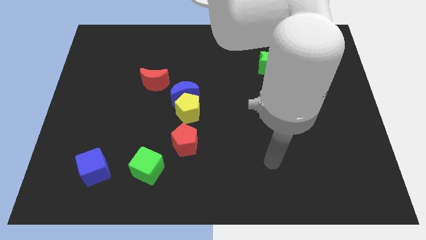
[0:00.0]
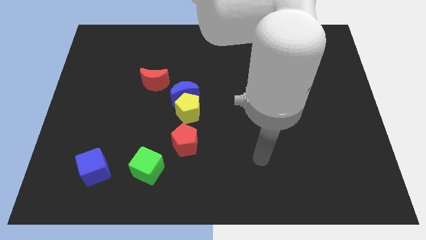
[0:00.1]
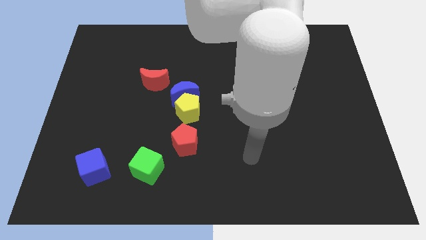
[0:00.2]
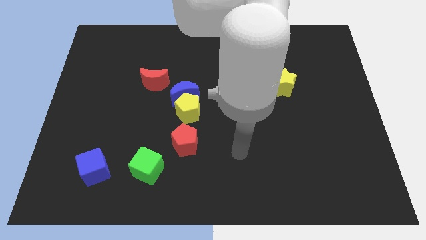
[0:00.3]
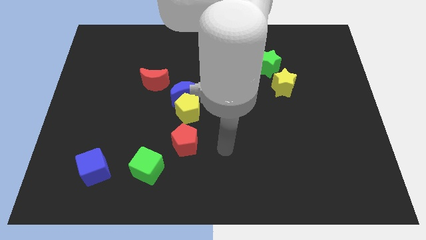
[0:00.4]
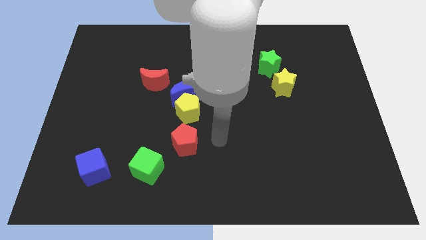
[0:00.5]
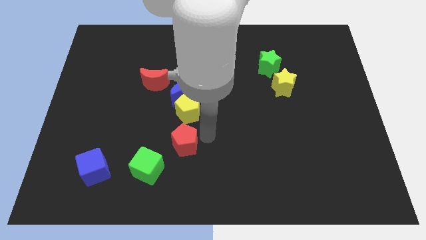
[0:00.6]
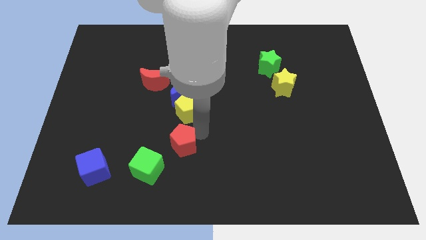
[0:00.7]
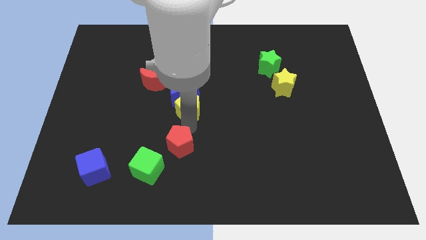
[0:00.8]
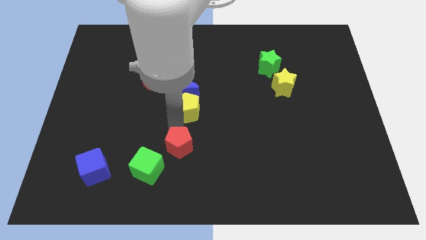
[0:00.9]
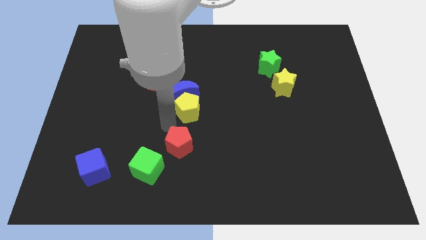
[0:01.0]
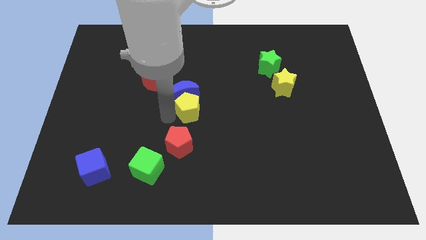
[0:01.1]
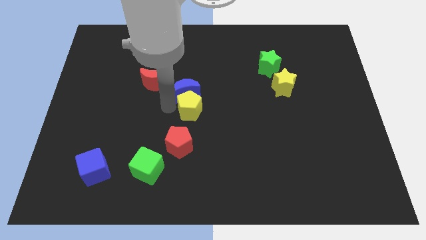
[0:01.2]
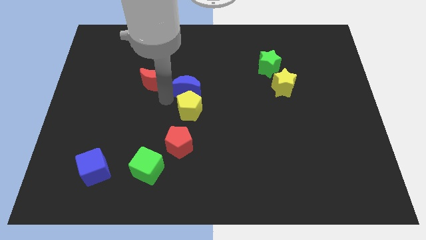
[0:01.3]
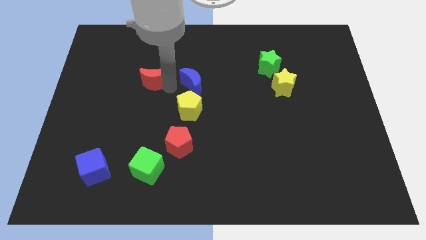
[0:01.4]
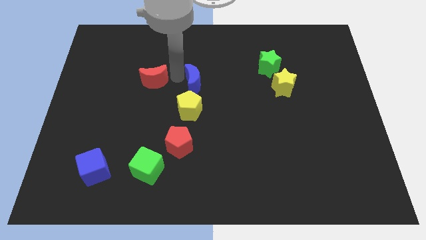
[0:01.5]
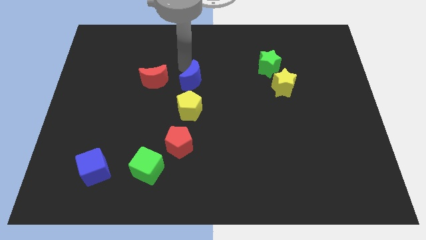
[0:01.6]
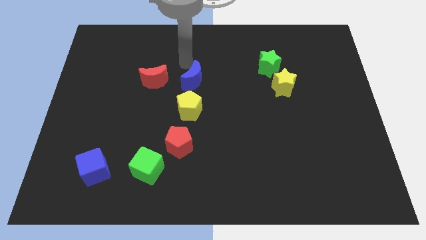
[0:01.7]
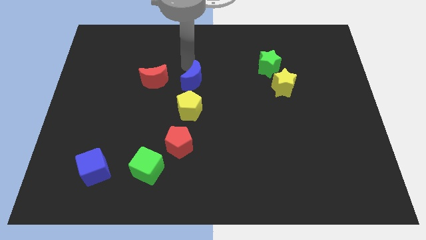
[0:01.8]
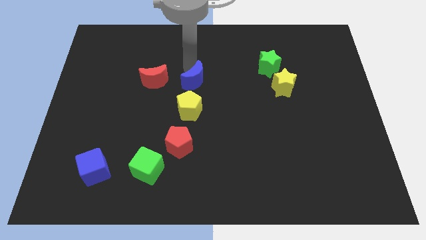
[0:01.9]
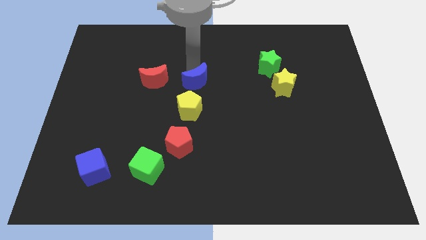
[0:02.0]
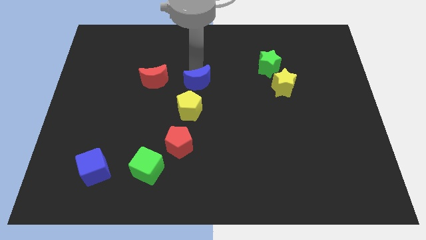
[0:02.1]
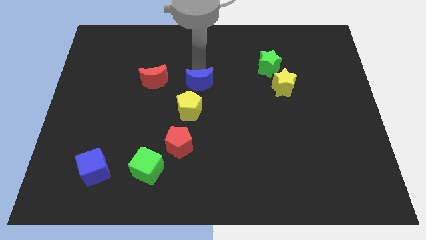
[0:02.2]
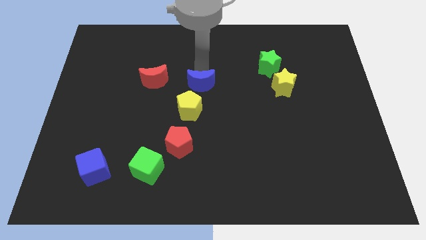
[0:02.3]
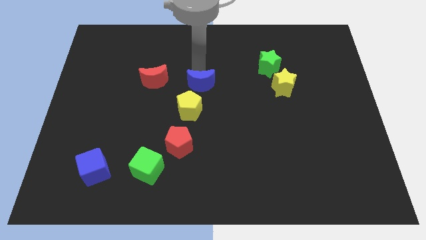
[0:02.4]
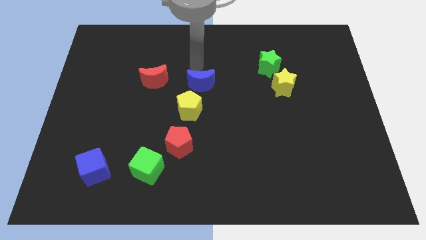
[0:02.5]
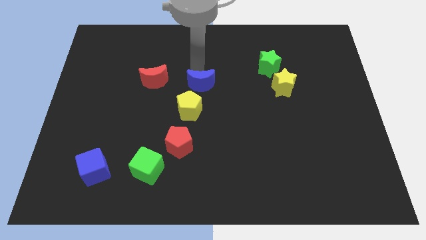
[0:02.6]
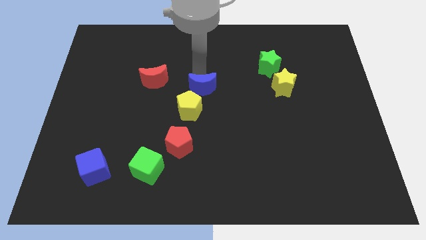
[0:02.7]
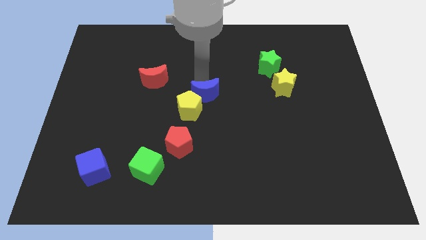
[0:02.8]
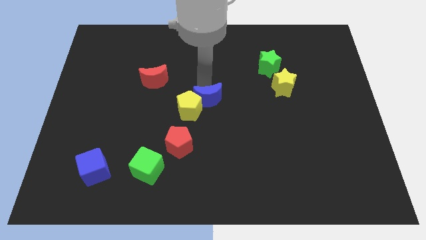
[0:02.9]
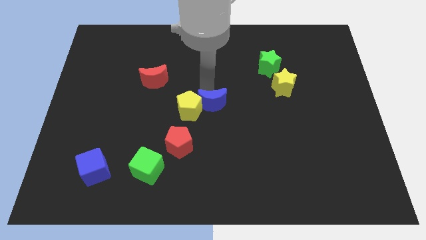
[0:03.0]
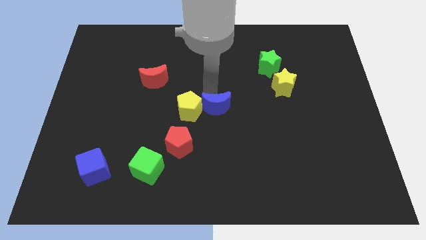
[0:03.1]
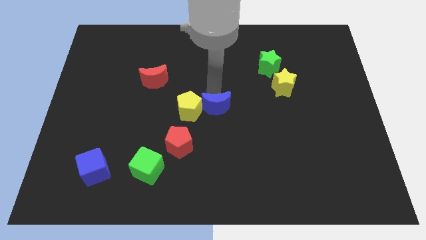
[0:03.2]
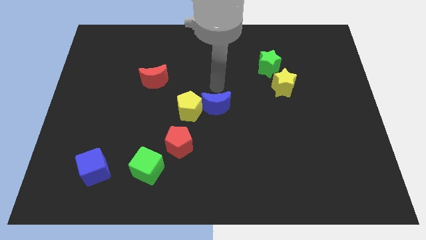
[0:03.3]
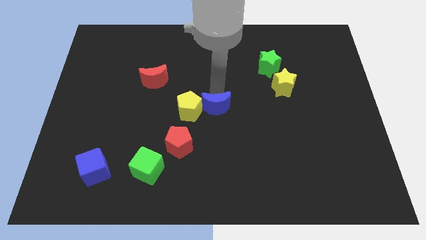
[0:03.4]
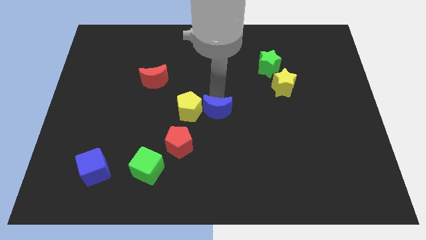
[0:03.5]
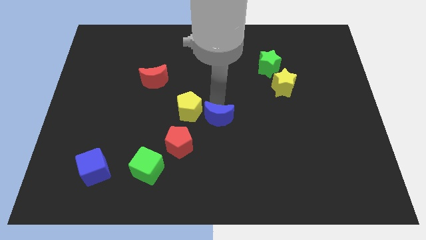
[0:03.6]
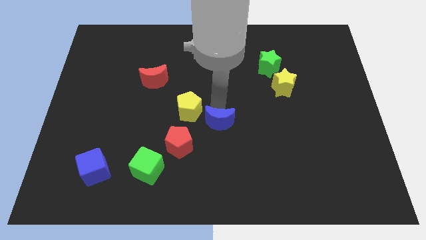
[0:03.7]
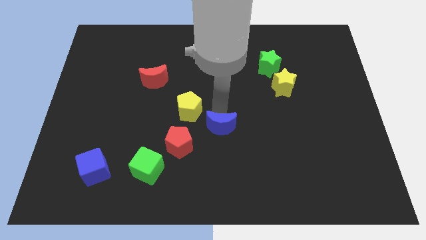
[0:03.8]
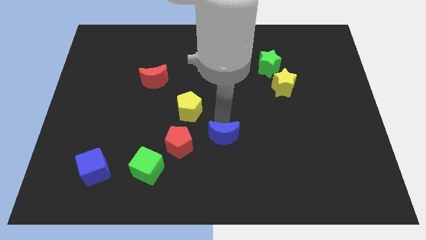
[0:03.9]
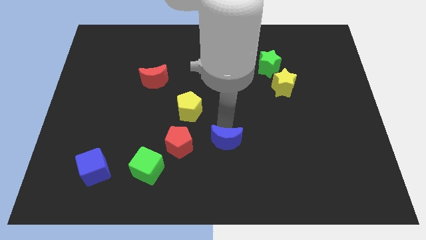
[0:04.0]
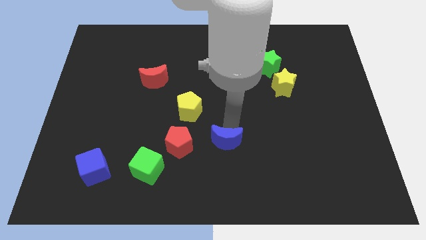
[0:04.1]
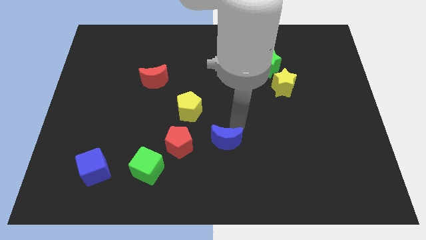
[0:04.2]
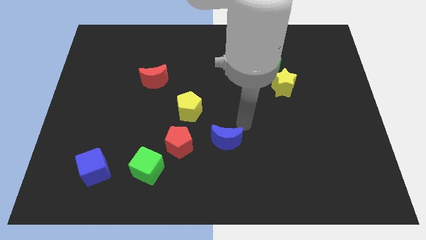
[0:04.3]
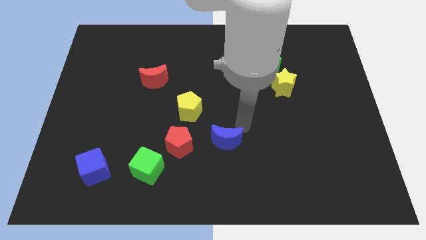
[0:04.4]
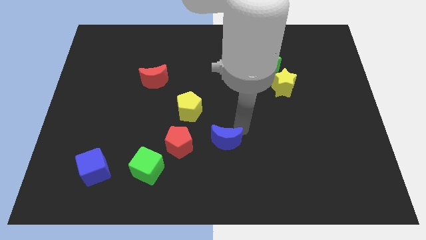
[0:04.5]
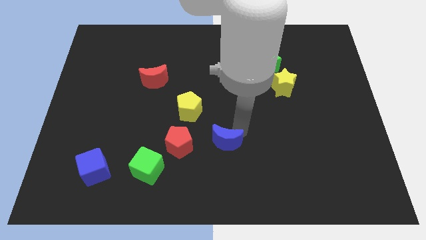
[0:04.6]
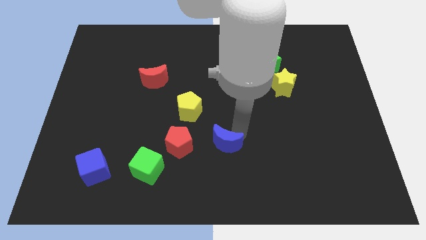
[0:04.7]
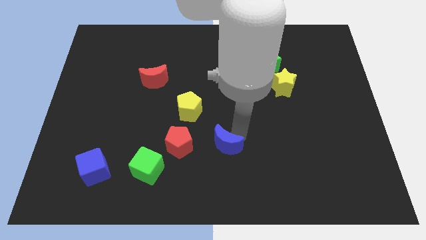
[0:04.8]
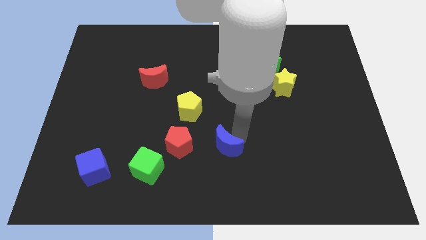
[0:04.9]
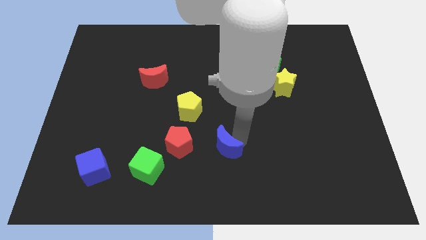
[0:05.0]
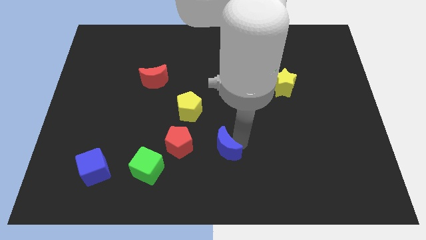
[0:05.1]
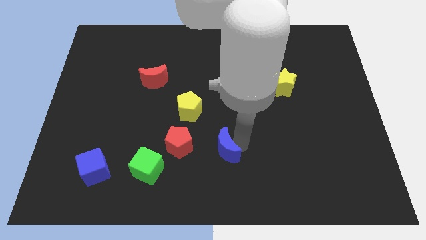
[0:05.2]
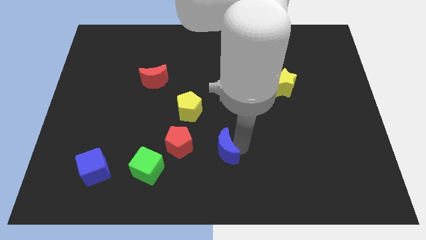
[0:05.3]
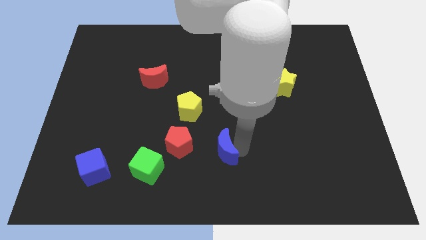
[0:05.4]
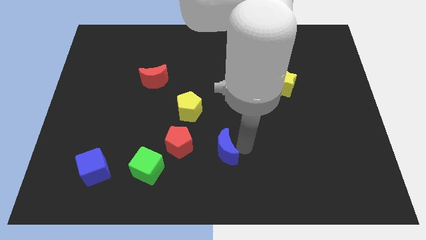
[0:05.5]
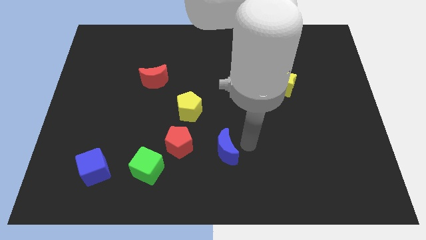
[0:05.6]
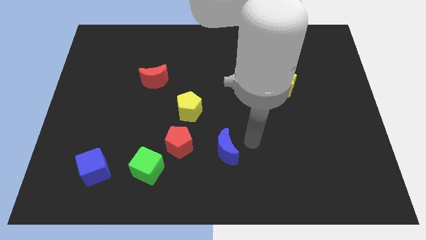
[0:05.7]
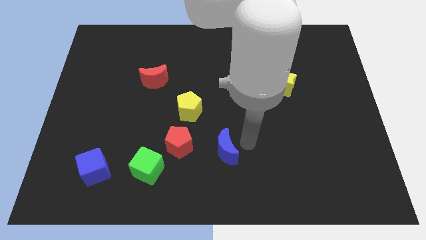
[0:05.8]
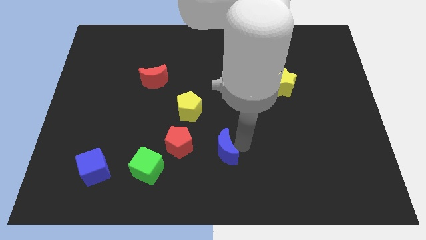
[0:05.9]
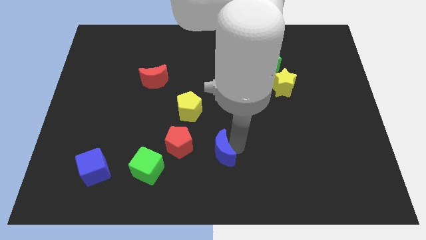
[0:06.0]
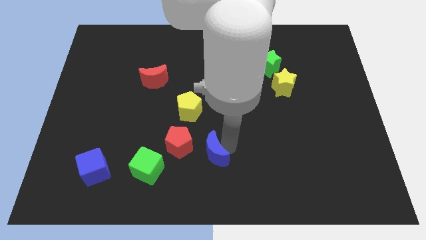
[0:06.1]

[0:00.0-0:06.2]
move the blue moon to the bottom side

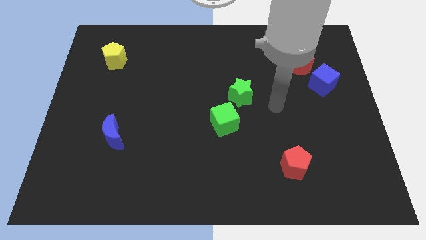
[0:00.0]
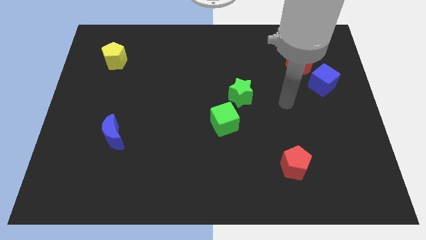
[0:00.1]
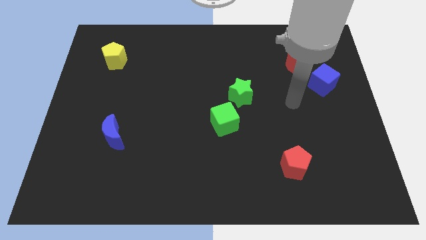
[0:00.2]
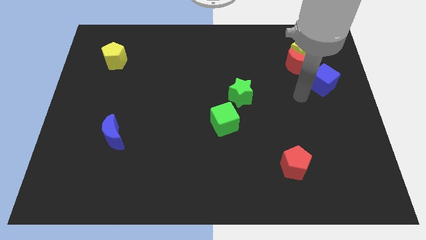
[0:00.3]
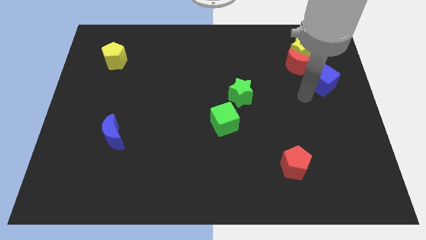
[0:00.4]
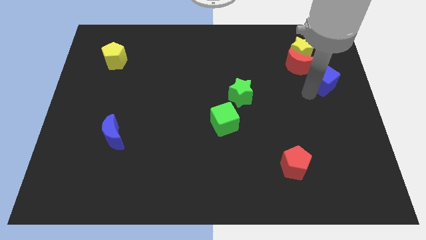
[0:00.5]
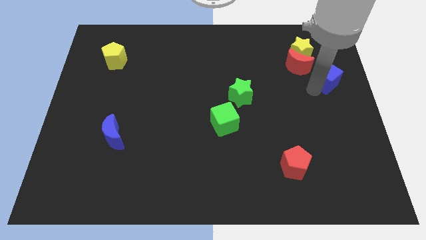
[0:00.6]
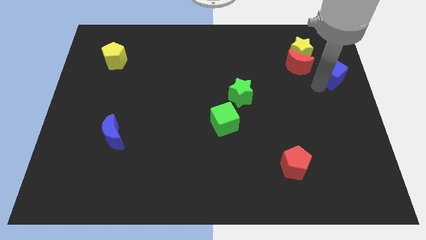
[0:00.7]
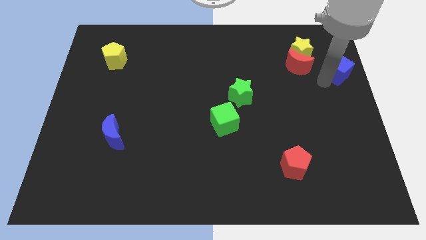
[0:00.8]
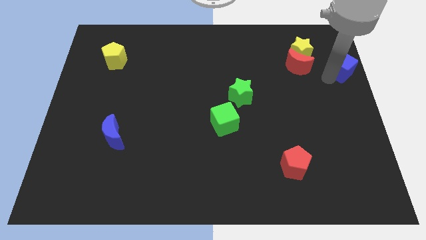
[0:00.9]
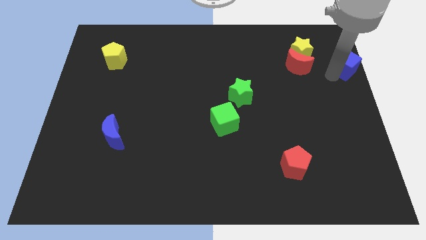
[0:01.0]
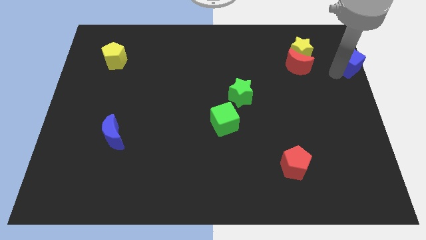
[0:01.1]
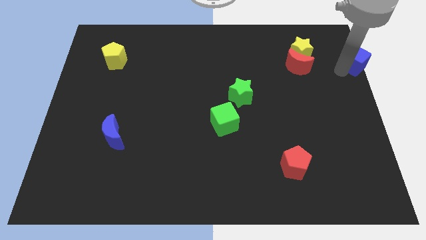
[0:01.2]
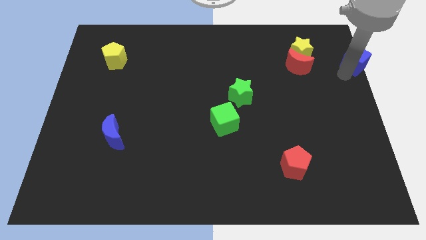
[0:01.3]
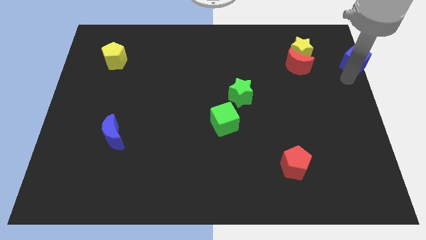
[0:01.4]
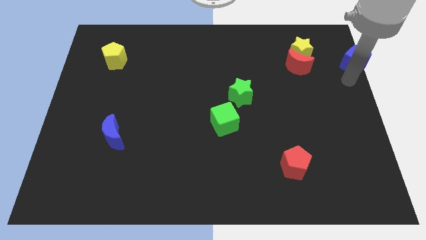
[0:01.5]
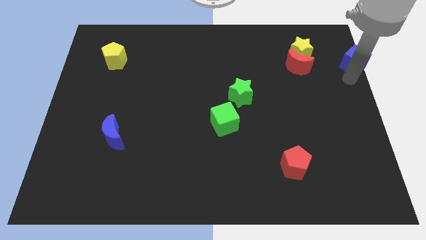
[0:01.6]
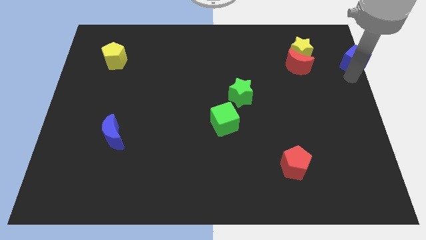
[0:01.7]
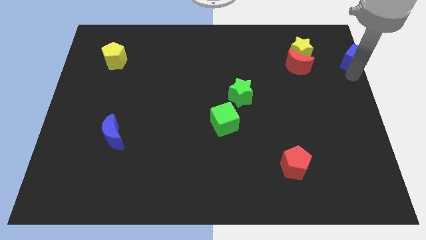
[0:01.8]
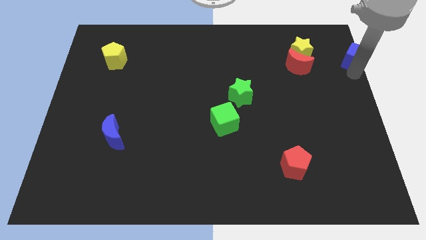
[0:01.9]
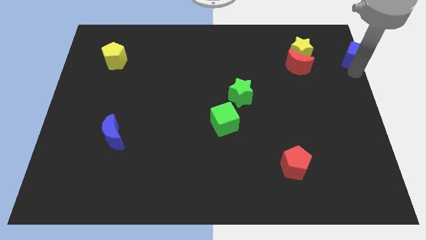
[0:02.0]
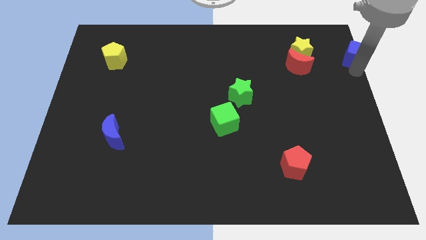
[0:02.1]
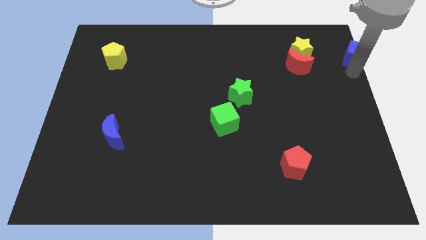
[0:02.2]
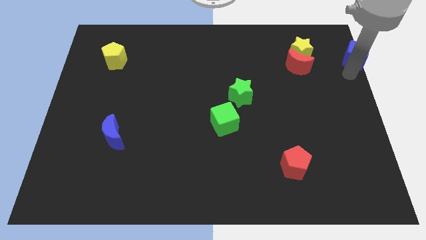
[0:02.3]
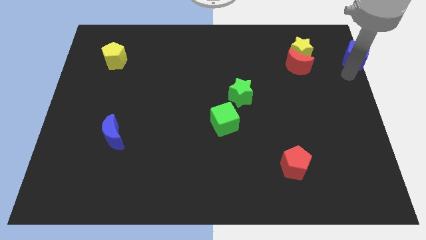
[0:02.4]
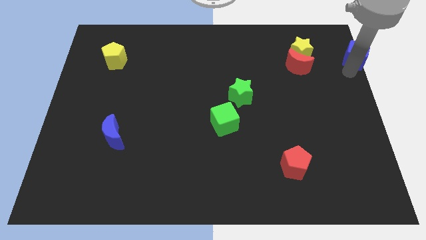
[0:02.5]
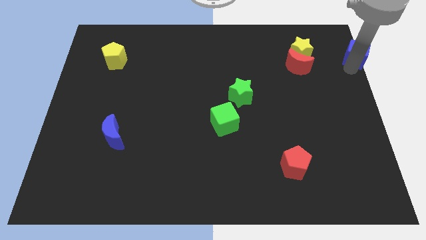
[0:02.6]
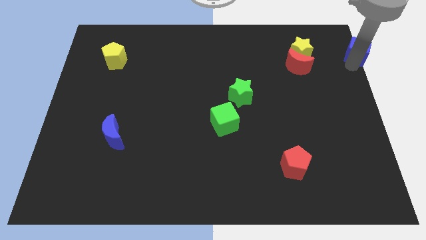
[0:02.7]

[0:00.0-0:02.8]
move the blue cube to the top right corner
